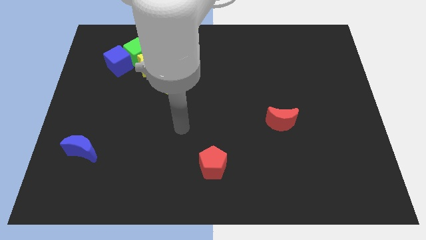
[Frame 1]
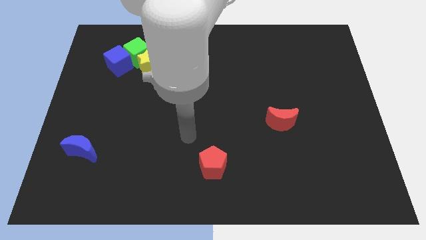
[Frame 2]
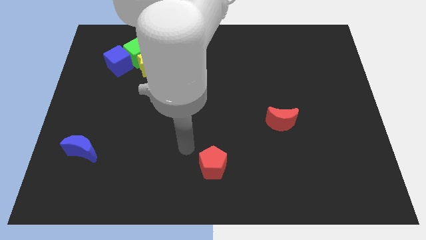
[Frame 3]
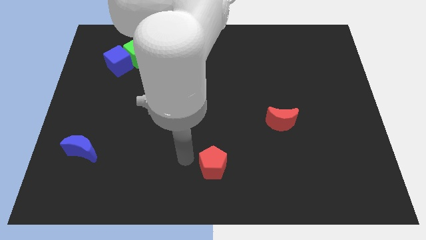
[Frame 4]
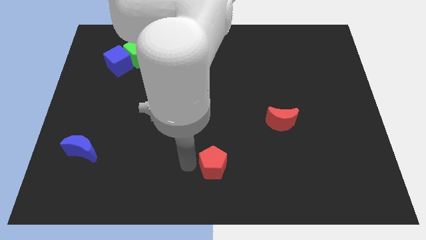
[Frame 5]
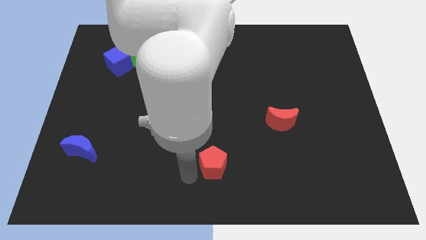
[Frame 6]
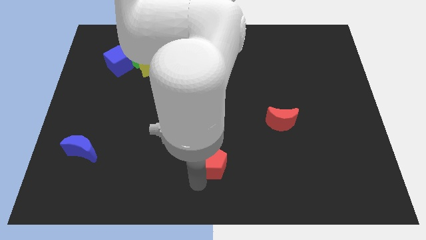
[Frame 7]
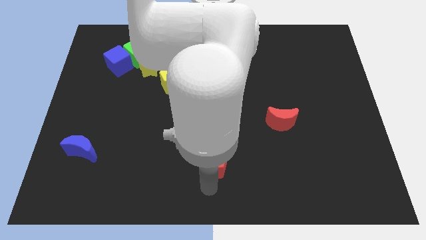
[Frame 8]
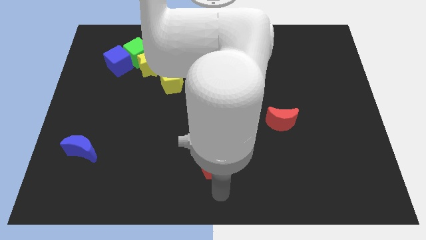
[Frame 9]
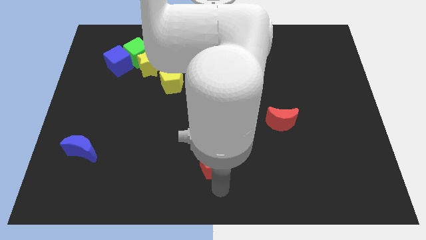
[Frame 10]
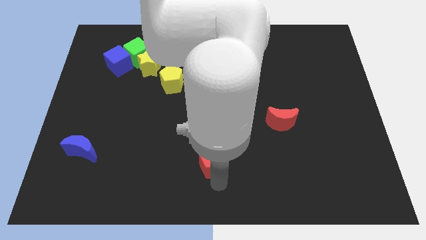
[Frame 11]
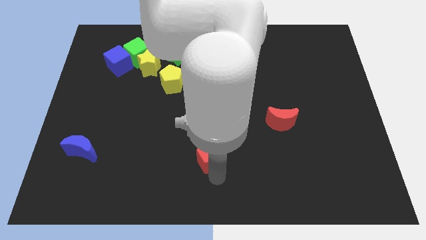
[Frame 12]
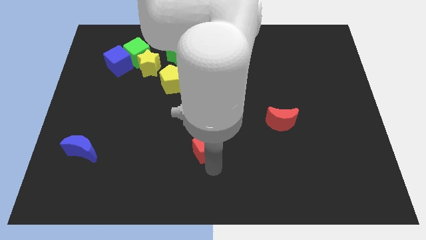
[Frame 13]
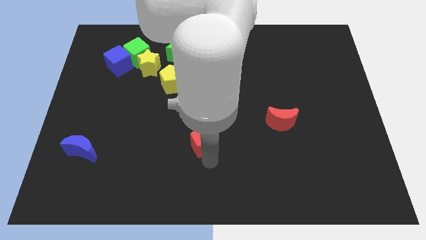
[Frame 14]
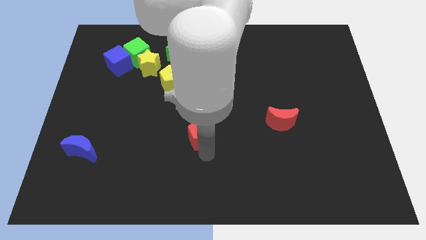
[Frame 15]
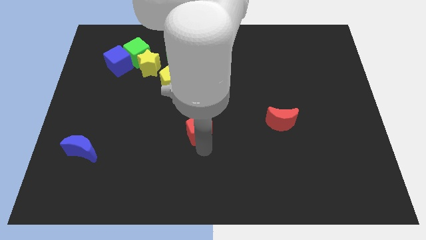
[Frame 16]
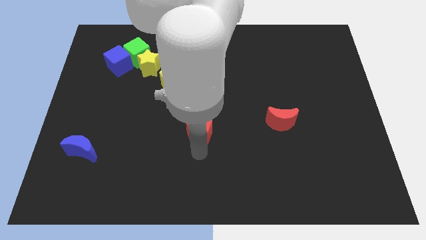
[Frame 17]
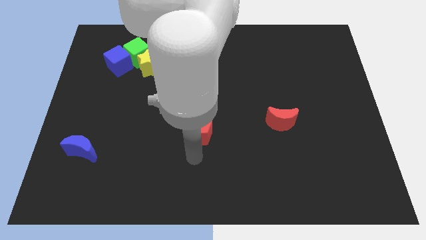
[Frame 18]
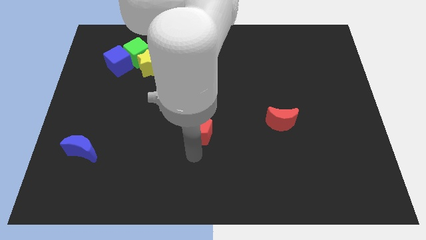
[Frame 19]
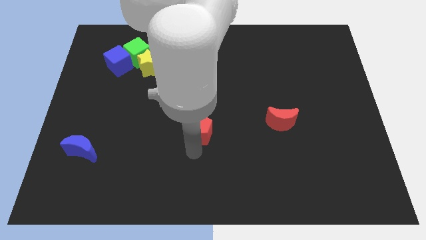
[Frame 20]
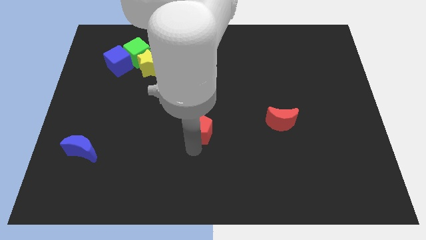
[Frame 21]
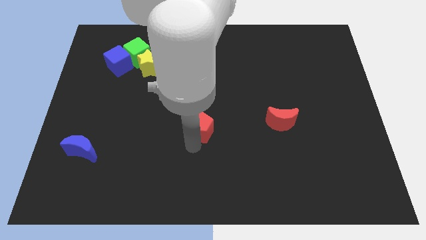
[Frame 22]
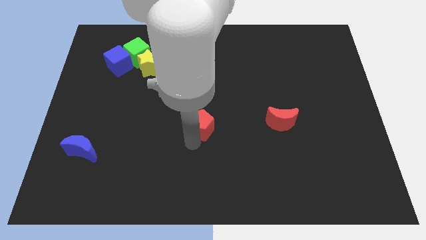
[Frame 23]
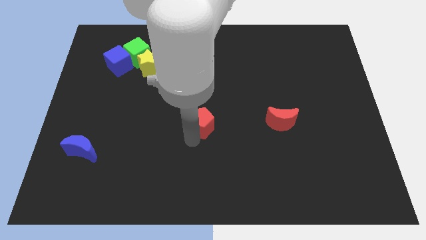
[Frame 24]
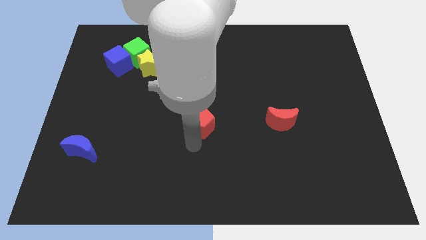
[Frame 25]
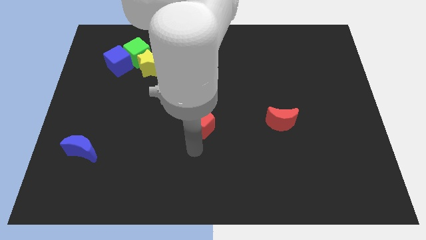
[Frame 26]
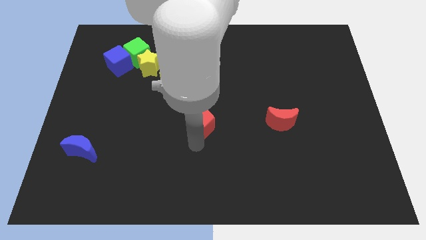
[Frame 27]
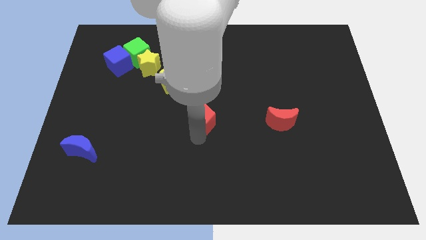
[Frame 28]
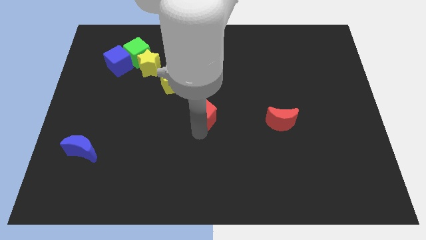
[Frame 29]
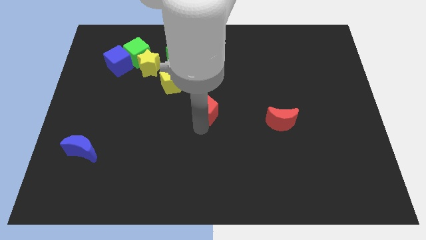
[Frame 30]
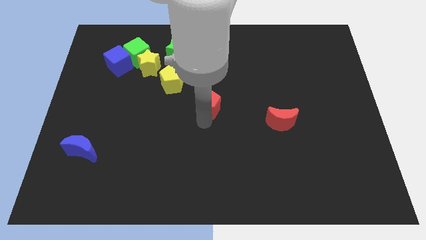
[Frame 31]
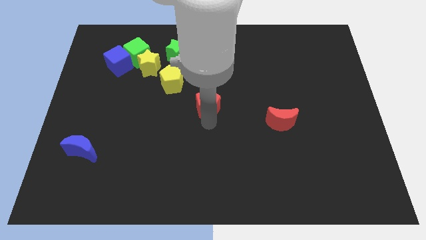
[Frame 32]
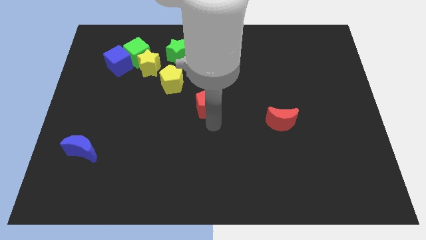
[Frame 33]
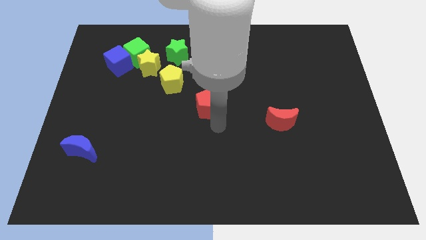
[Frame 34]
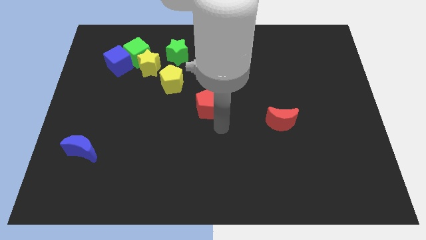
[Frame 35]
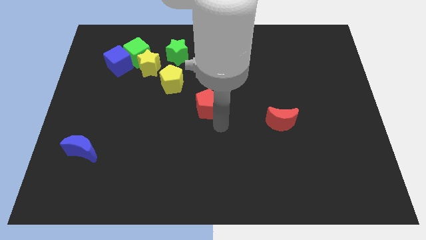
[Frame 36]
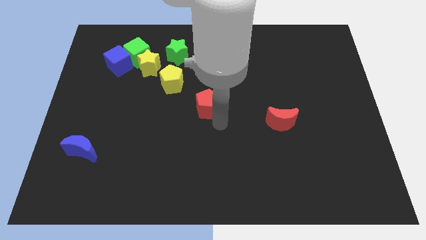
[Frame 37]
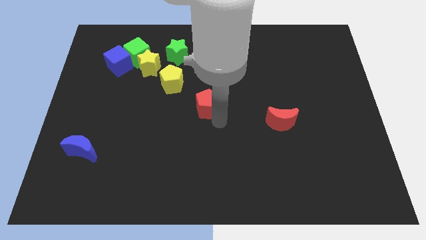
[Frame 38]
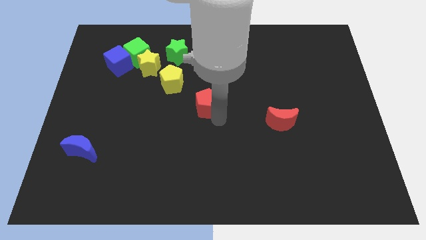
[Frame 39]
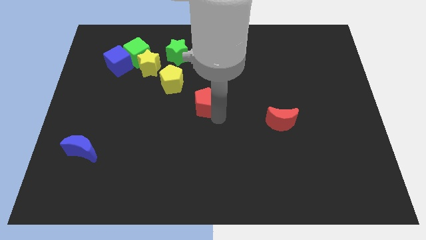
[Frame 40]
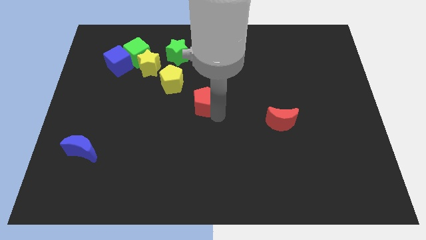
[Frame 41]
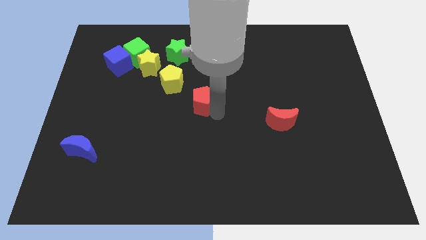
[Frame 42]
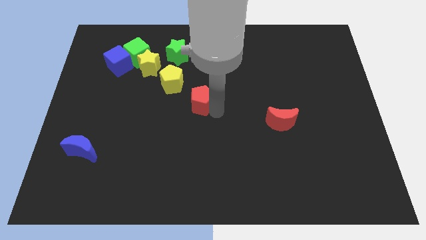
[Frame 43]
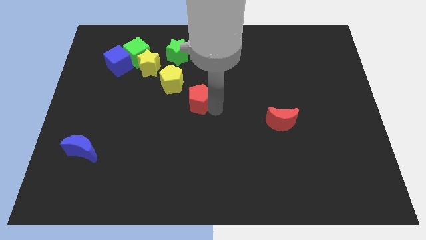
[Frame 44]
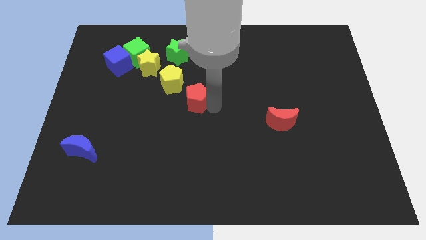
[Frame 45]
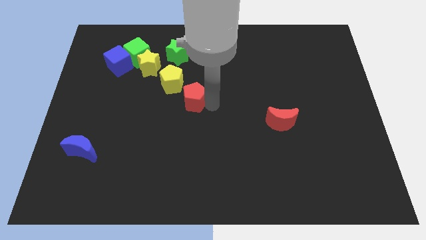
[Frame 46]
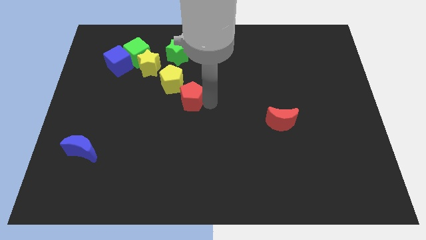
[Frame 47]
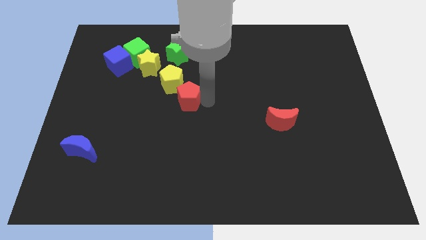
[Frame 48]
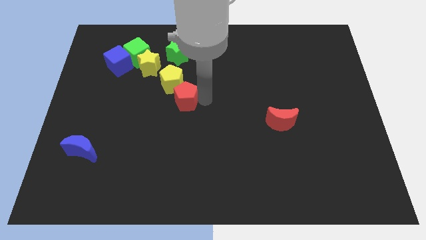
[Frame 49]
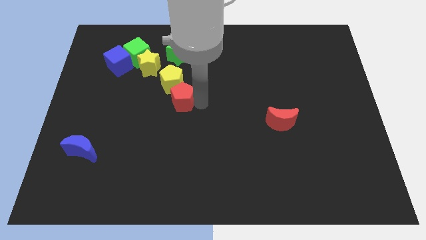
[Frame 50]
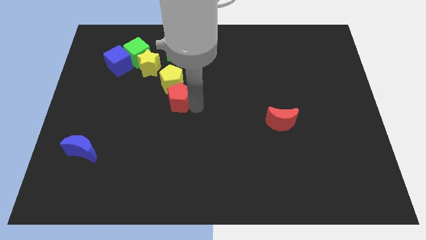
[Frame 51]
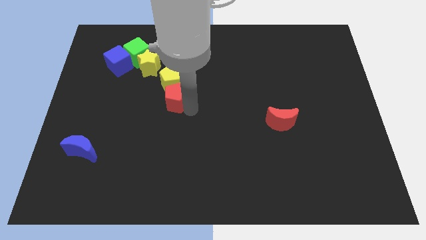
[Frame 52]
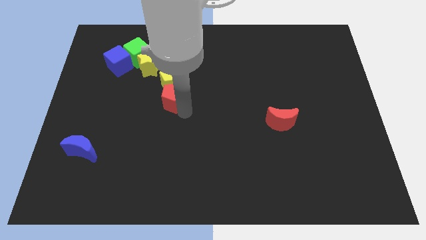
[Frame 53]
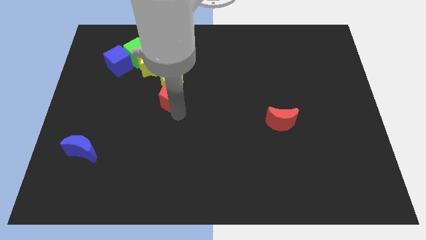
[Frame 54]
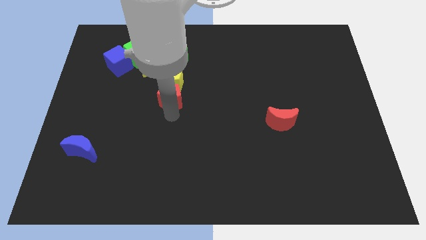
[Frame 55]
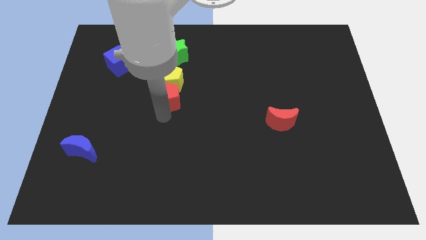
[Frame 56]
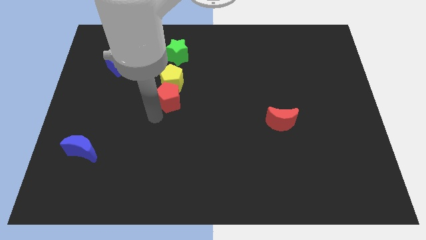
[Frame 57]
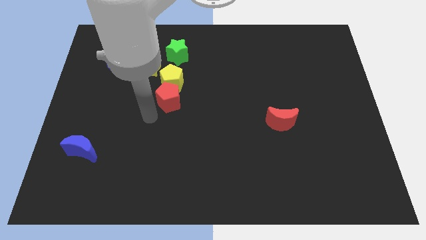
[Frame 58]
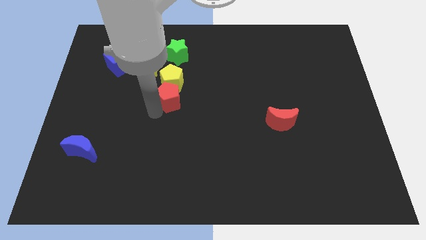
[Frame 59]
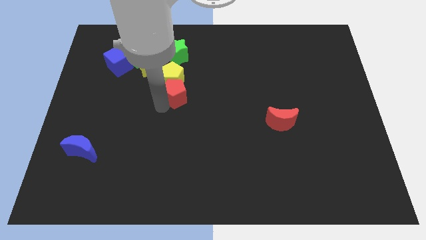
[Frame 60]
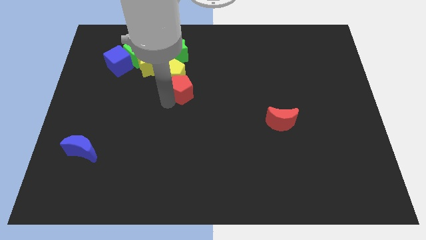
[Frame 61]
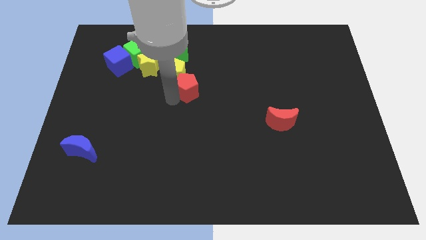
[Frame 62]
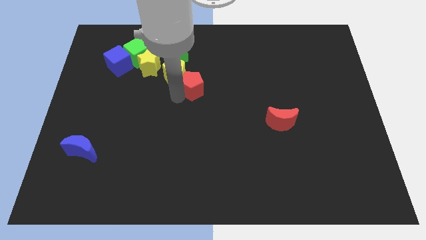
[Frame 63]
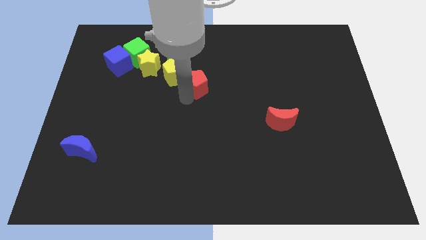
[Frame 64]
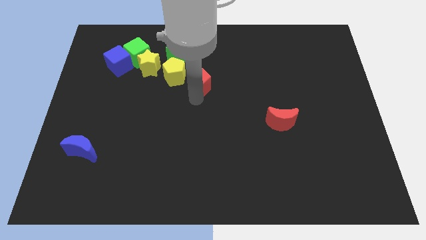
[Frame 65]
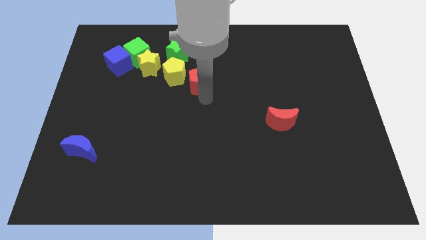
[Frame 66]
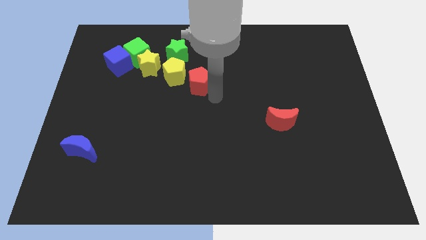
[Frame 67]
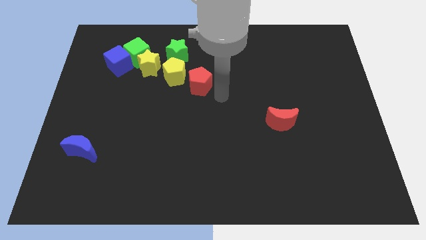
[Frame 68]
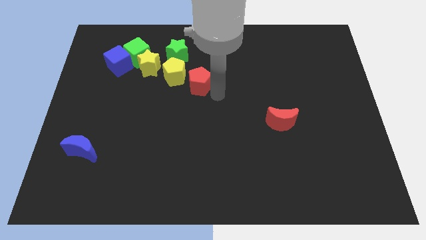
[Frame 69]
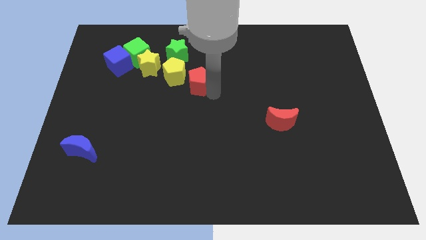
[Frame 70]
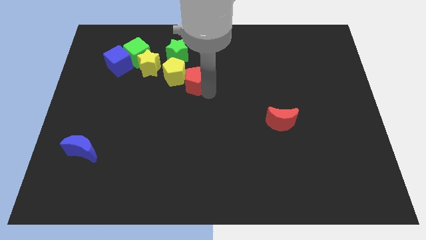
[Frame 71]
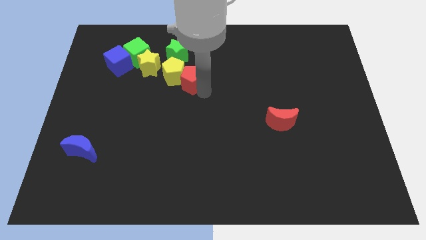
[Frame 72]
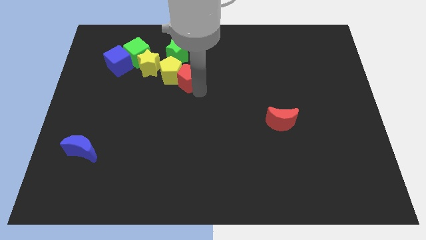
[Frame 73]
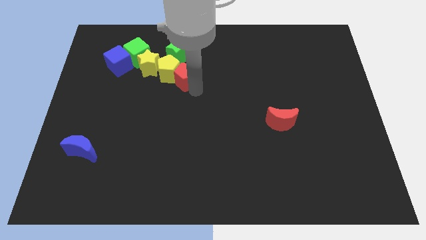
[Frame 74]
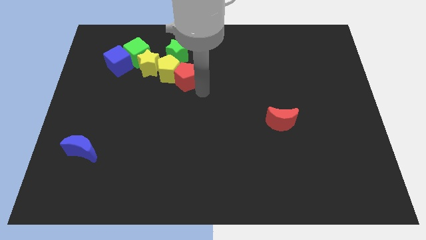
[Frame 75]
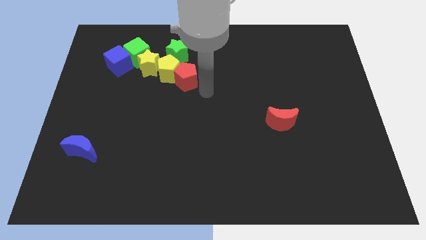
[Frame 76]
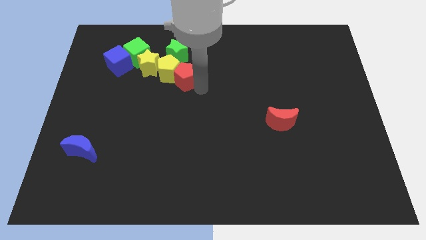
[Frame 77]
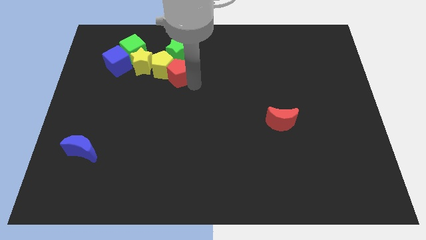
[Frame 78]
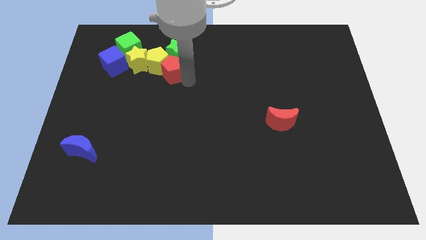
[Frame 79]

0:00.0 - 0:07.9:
move the red pentagon just right of the blue cube
